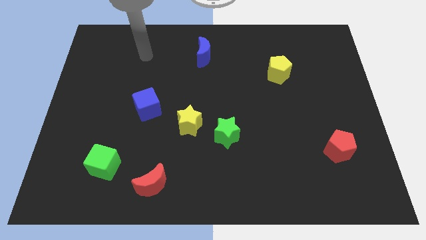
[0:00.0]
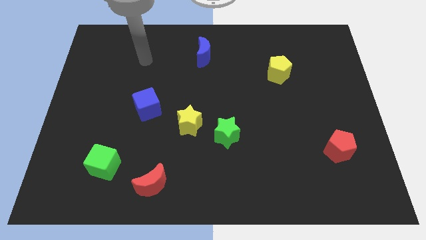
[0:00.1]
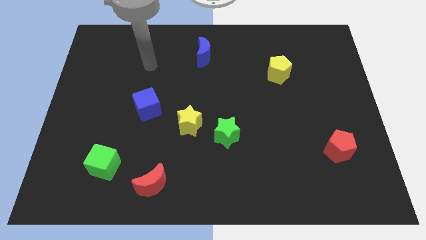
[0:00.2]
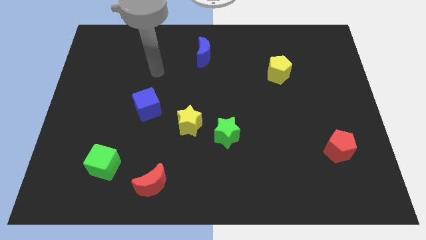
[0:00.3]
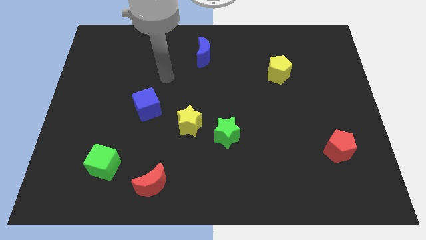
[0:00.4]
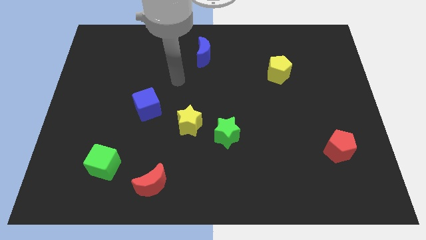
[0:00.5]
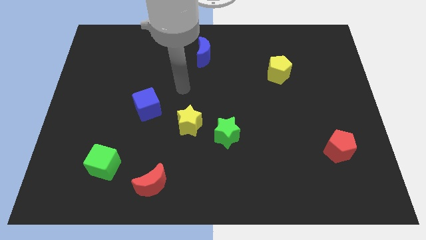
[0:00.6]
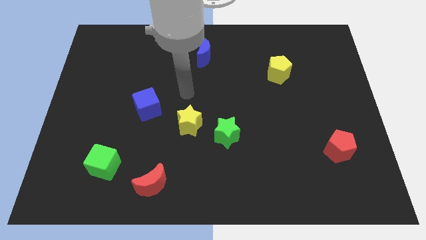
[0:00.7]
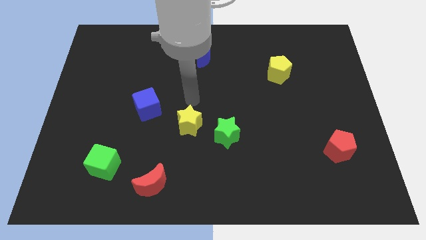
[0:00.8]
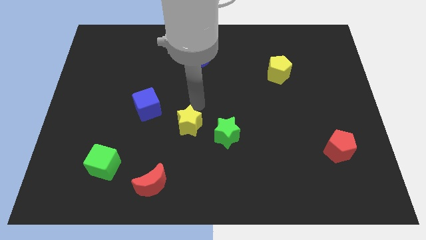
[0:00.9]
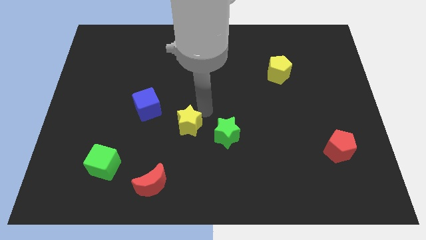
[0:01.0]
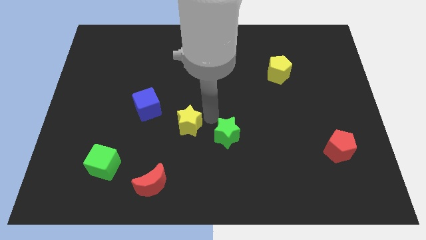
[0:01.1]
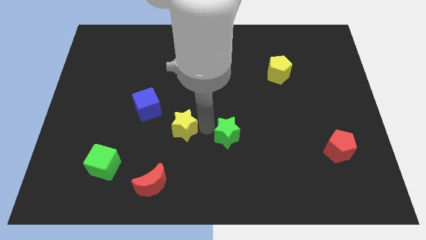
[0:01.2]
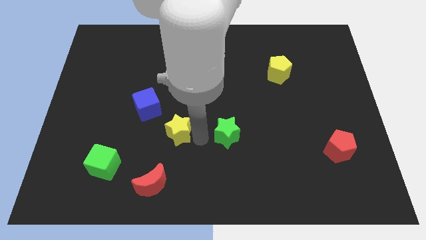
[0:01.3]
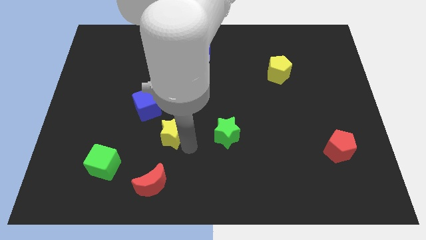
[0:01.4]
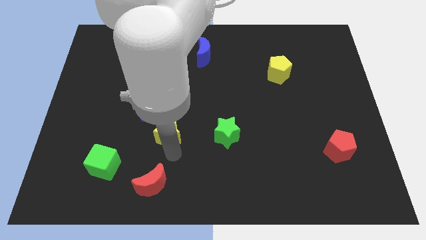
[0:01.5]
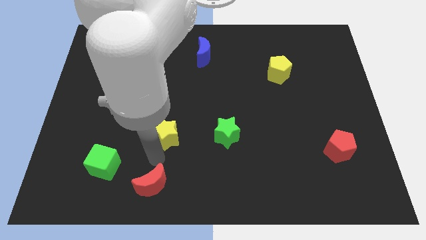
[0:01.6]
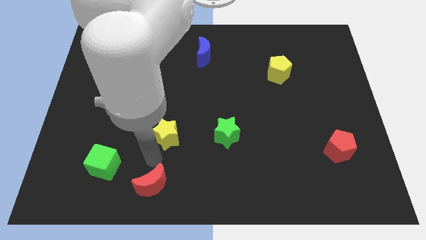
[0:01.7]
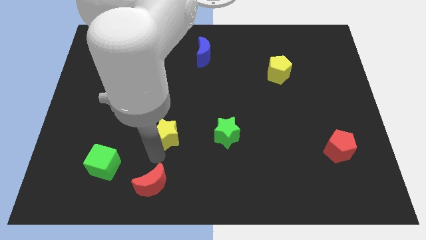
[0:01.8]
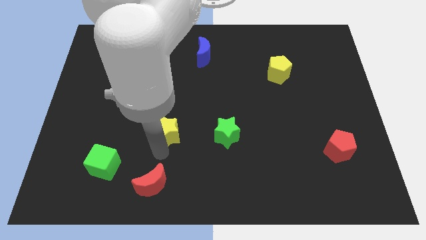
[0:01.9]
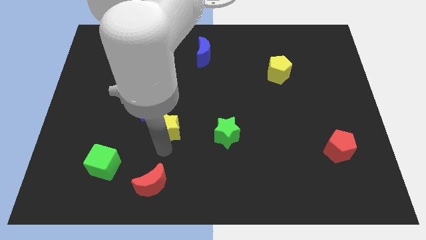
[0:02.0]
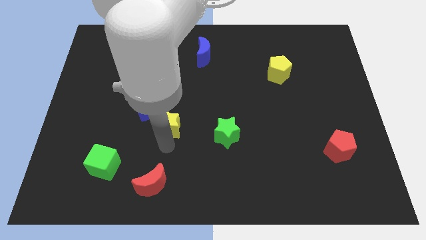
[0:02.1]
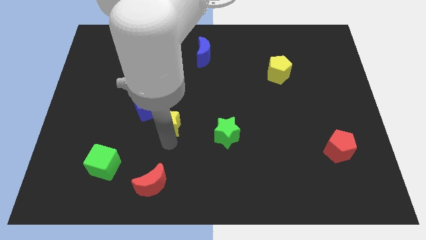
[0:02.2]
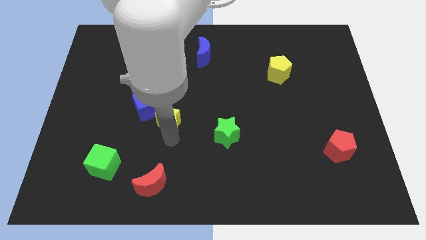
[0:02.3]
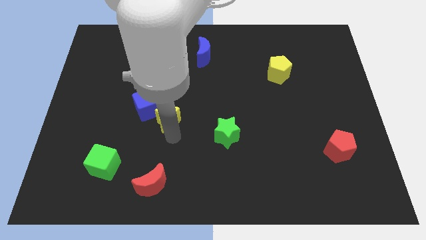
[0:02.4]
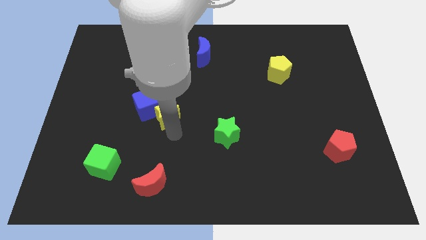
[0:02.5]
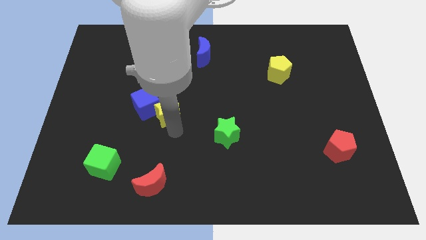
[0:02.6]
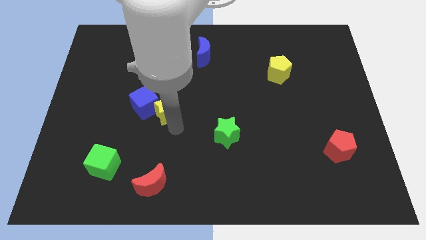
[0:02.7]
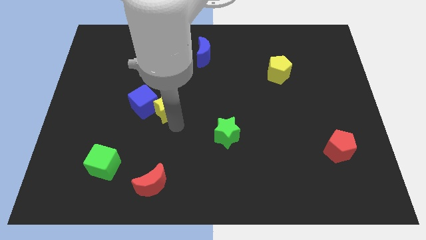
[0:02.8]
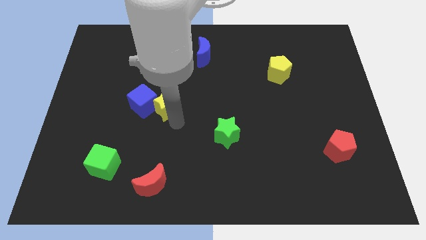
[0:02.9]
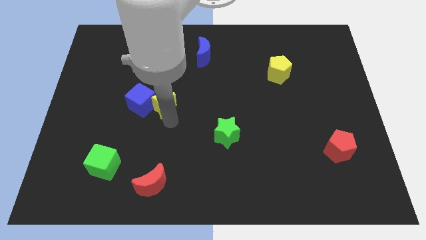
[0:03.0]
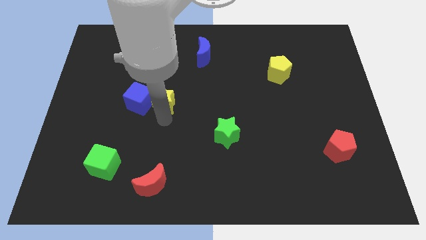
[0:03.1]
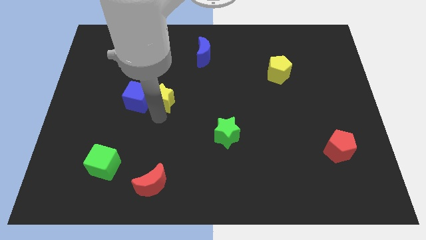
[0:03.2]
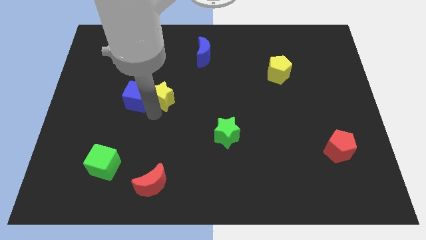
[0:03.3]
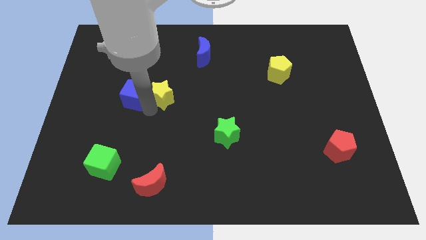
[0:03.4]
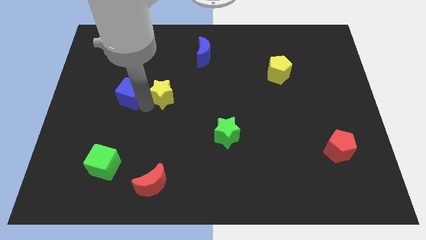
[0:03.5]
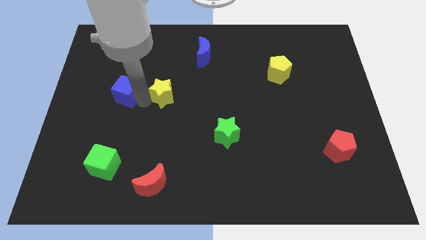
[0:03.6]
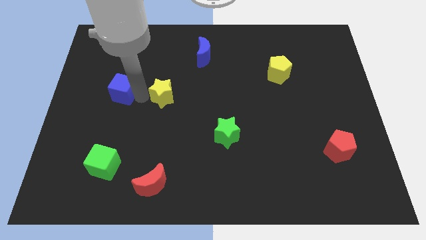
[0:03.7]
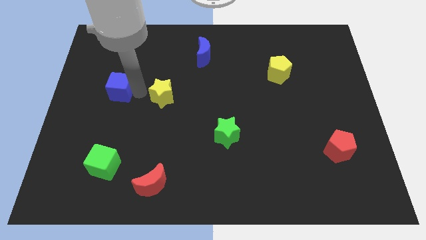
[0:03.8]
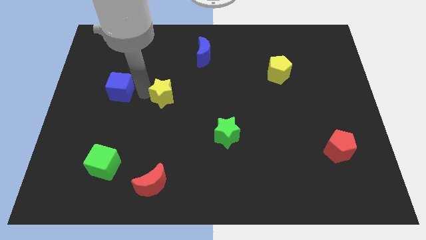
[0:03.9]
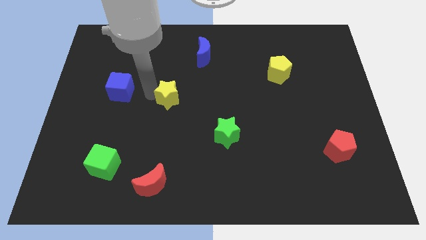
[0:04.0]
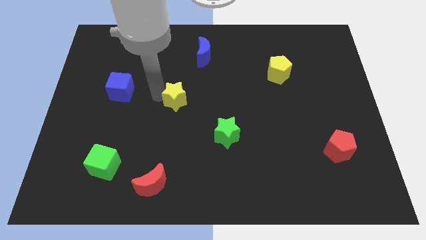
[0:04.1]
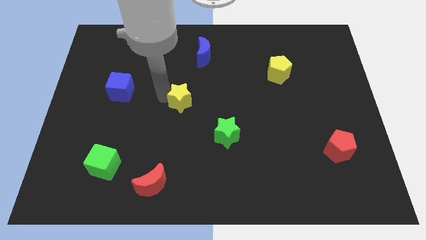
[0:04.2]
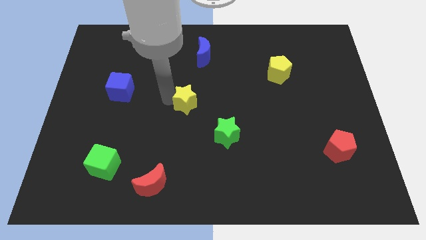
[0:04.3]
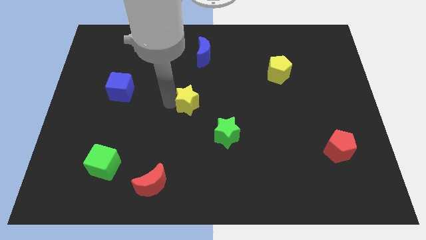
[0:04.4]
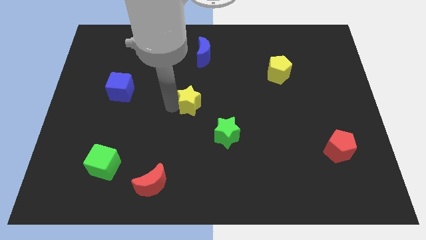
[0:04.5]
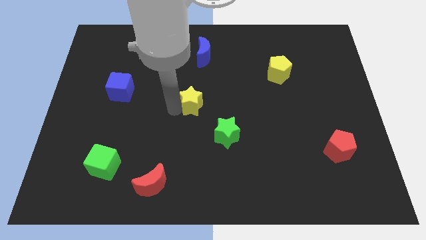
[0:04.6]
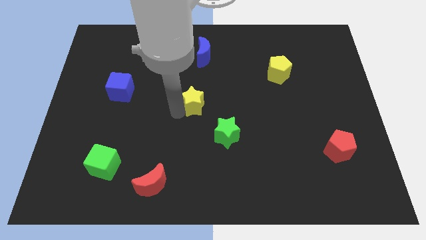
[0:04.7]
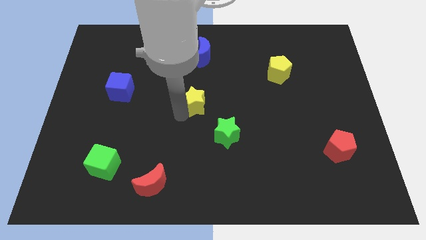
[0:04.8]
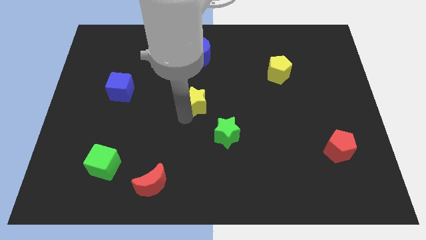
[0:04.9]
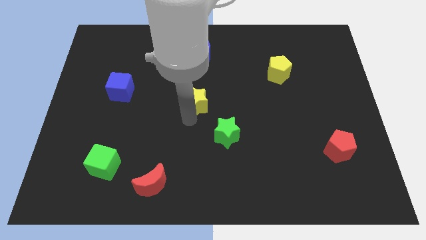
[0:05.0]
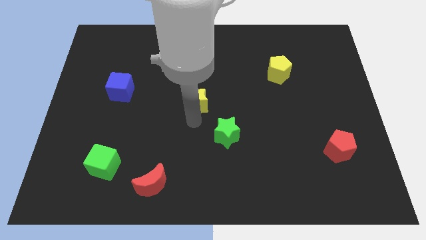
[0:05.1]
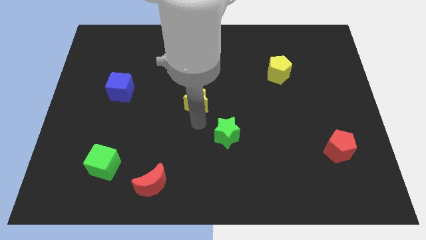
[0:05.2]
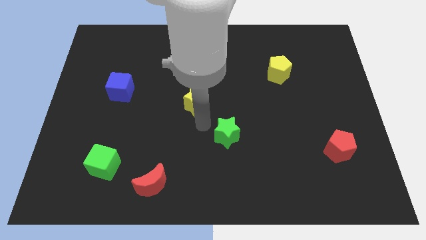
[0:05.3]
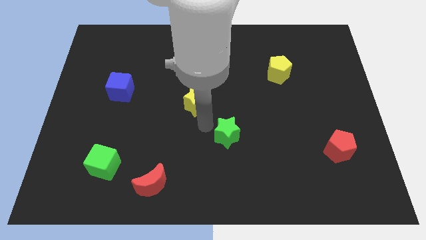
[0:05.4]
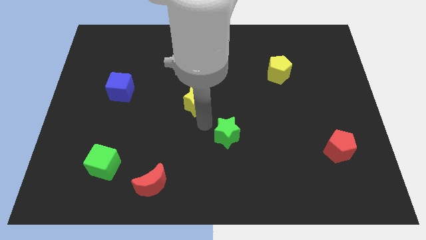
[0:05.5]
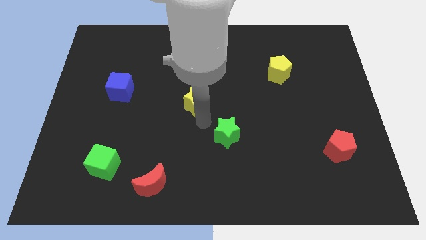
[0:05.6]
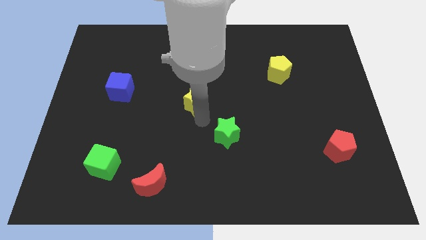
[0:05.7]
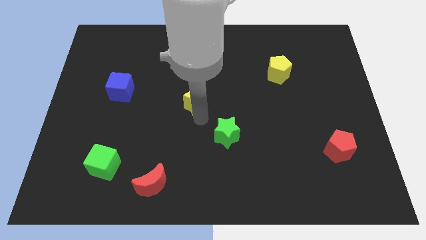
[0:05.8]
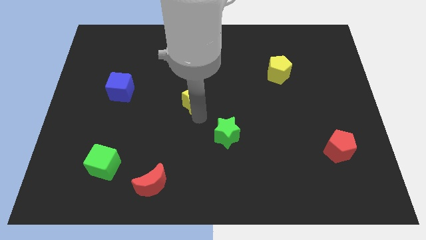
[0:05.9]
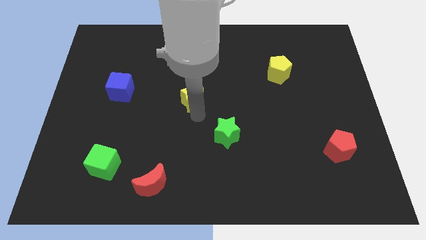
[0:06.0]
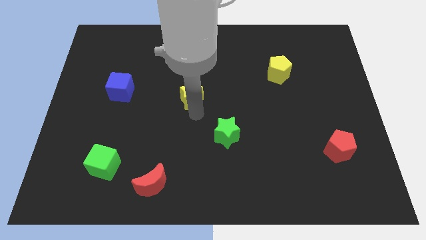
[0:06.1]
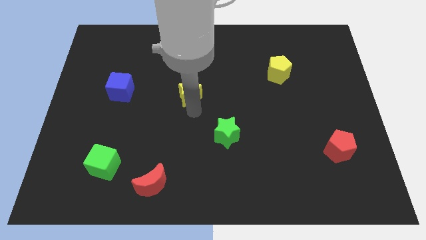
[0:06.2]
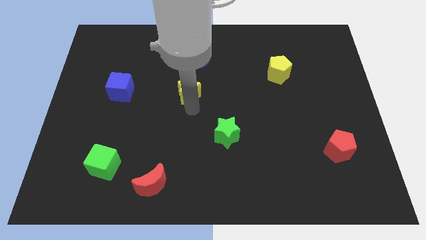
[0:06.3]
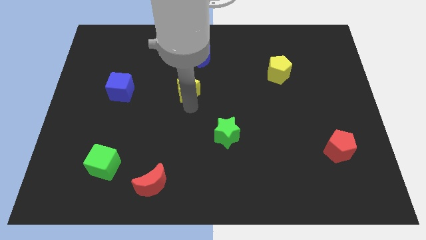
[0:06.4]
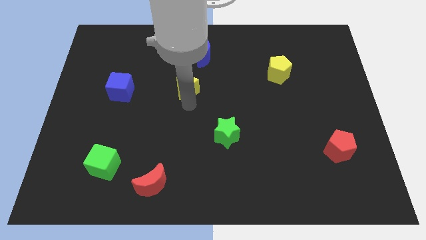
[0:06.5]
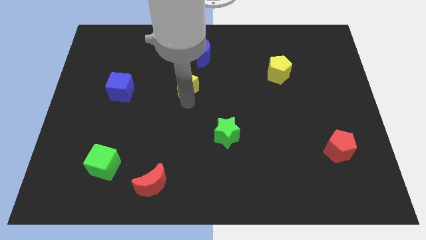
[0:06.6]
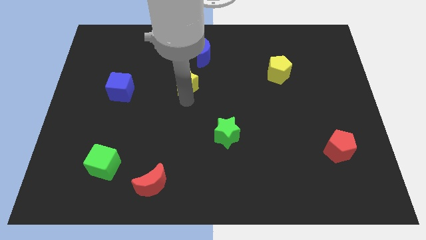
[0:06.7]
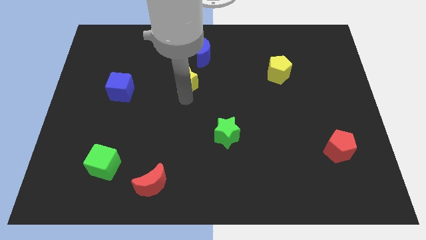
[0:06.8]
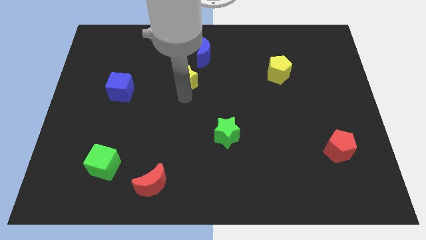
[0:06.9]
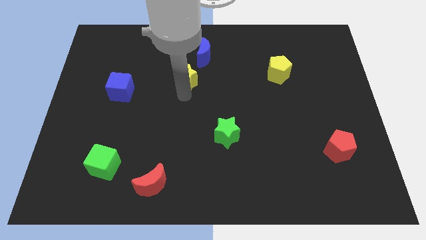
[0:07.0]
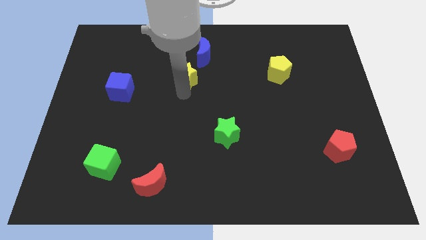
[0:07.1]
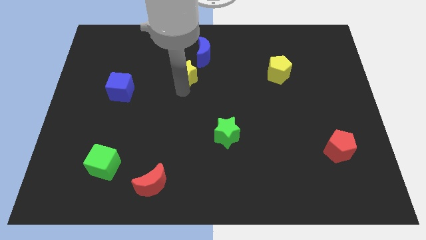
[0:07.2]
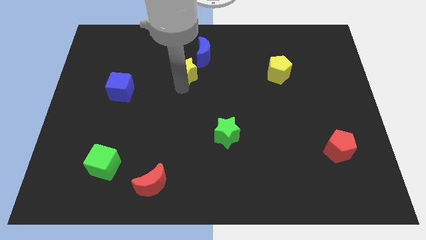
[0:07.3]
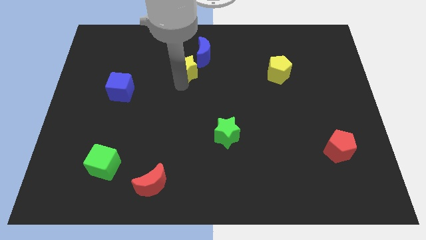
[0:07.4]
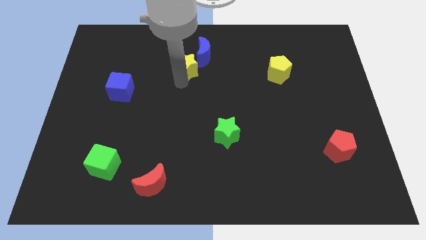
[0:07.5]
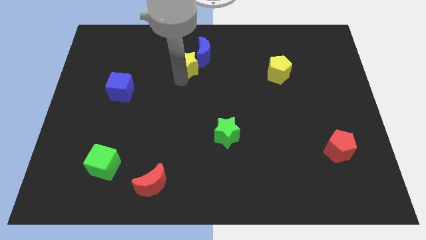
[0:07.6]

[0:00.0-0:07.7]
slide the yellow star to the blue moon
